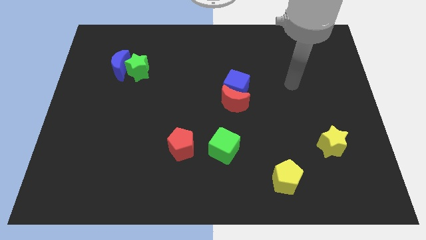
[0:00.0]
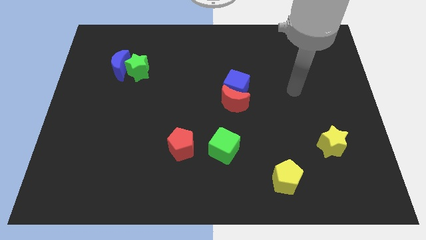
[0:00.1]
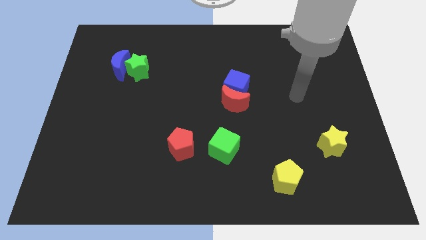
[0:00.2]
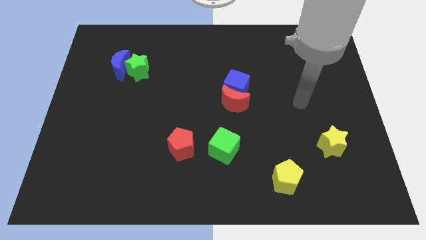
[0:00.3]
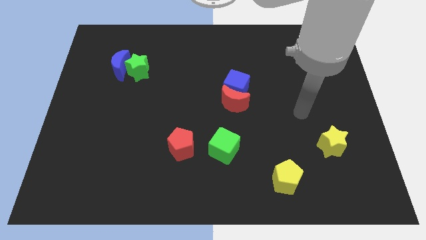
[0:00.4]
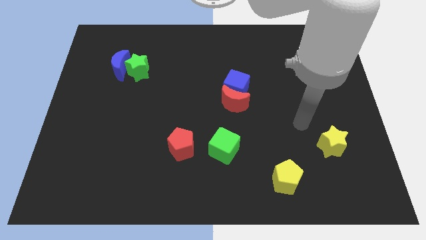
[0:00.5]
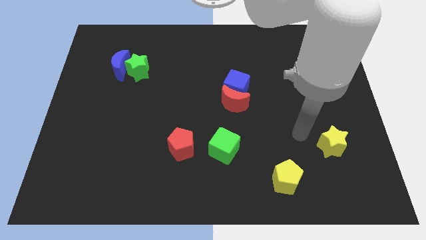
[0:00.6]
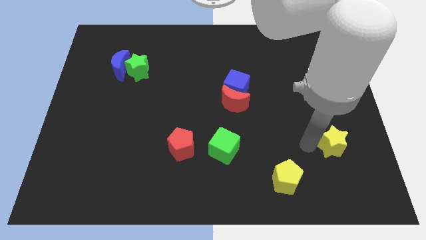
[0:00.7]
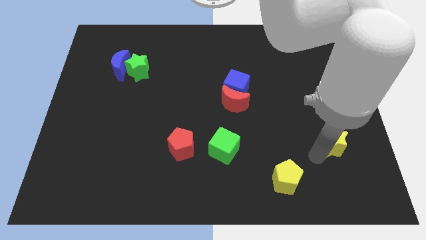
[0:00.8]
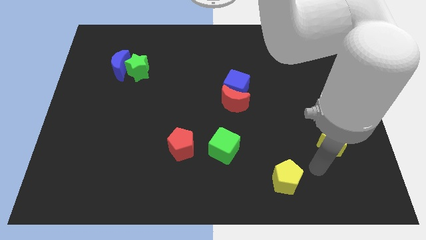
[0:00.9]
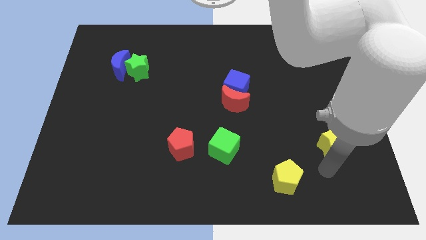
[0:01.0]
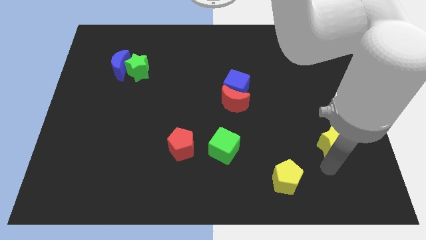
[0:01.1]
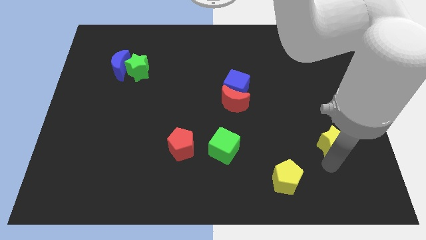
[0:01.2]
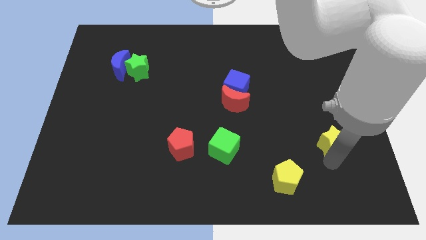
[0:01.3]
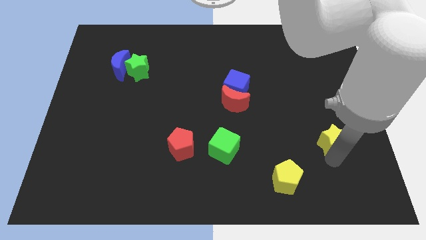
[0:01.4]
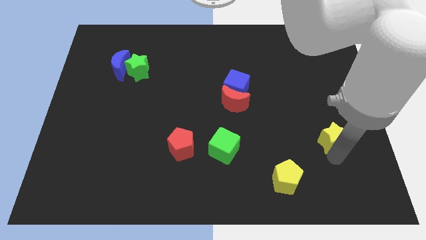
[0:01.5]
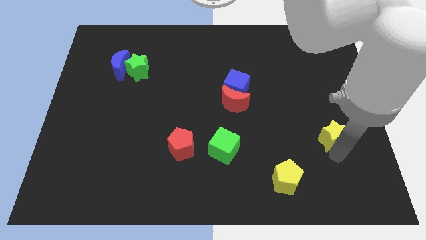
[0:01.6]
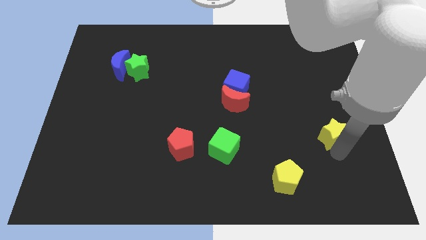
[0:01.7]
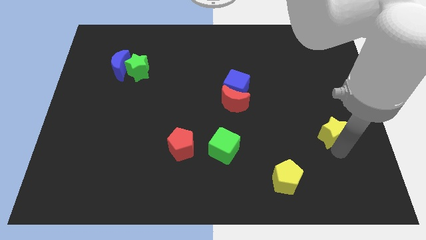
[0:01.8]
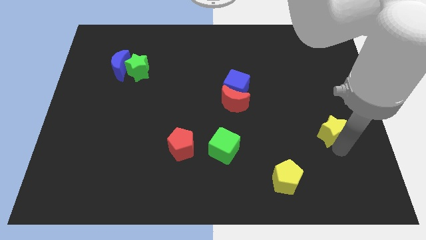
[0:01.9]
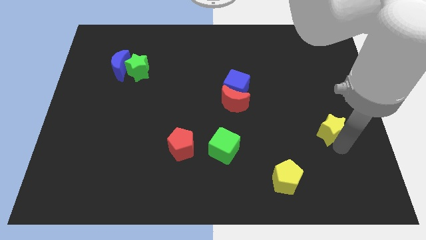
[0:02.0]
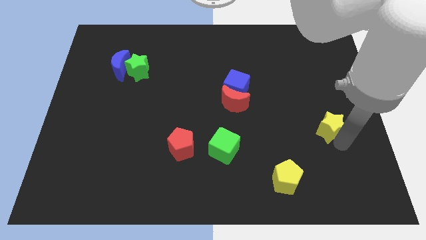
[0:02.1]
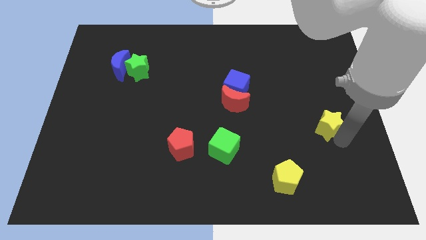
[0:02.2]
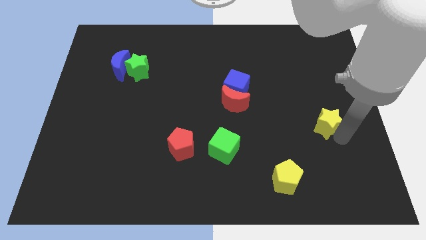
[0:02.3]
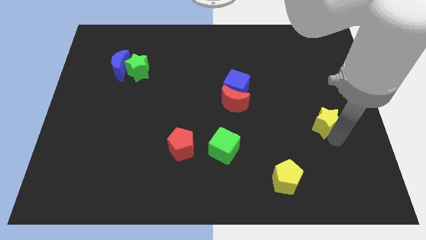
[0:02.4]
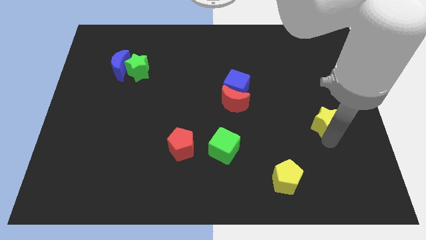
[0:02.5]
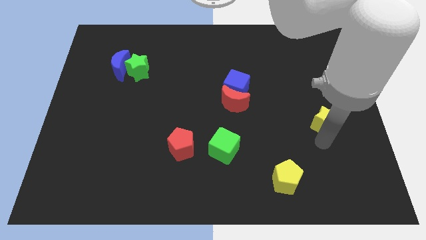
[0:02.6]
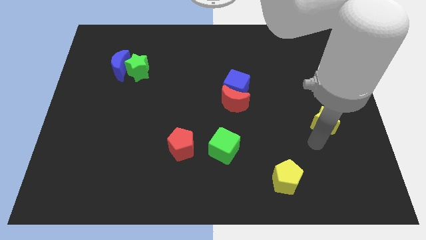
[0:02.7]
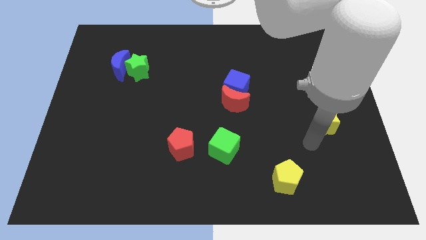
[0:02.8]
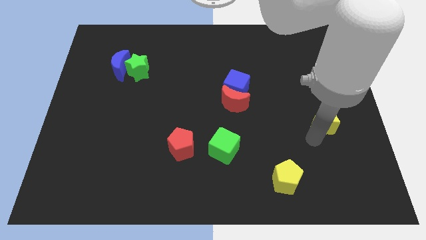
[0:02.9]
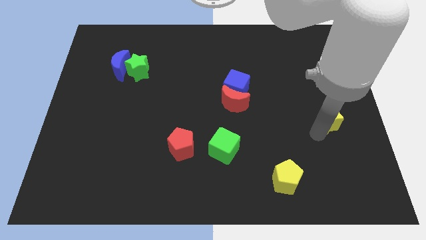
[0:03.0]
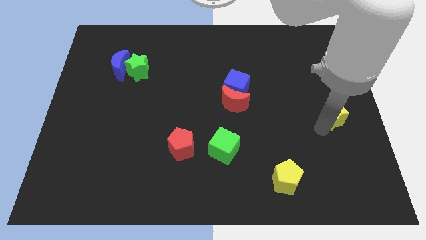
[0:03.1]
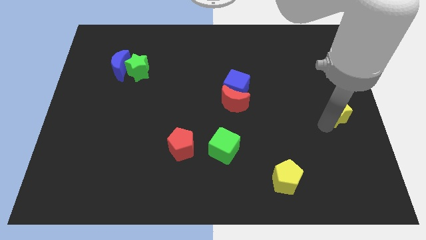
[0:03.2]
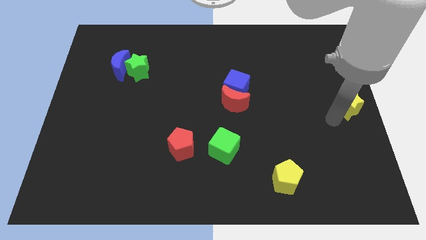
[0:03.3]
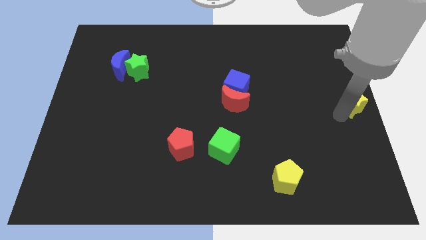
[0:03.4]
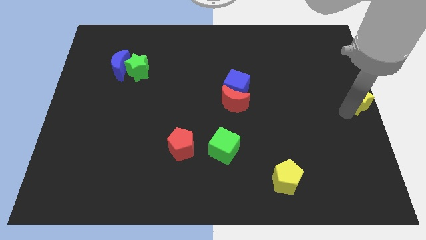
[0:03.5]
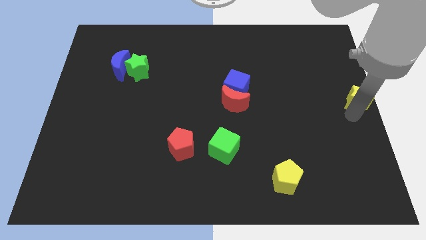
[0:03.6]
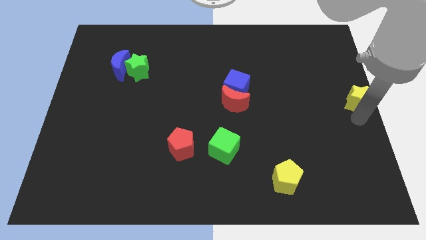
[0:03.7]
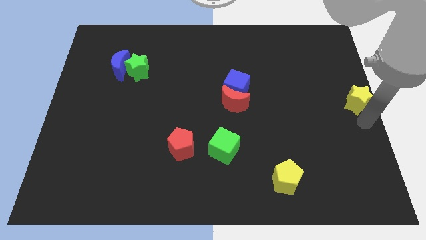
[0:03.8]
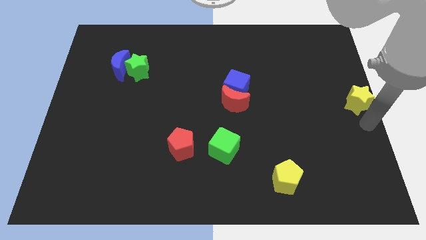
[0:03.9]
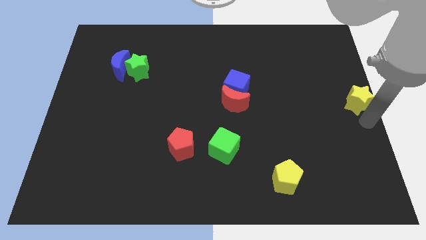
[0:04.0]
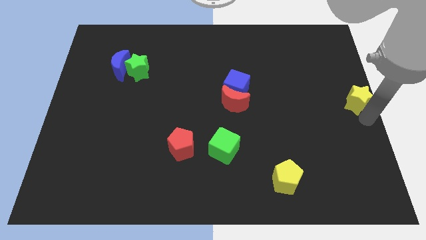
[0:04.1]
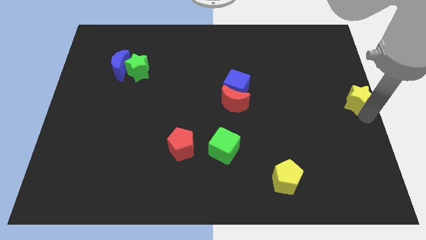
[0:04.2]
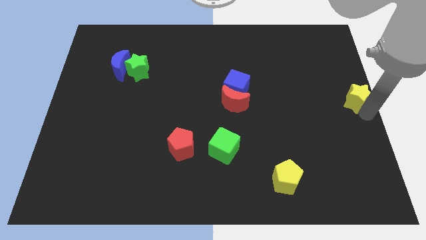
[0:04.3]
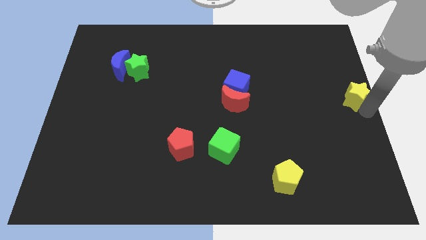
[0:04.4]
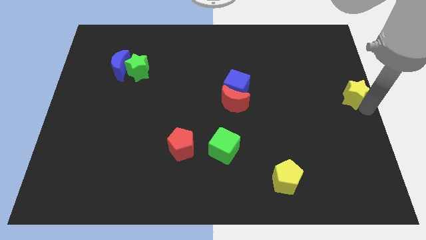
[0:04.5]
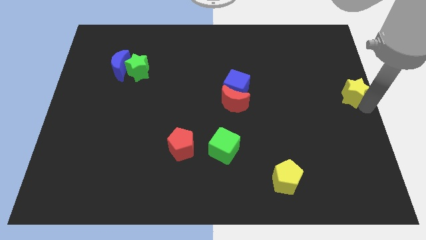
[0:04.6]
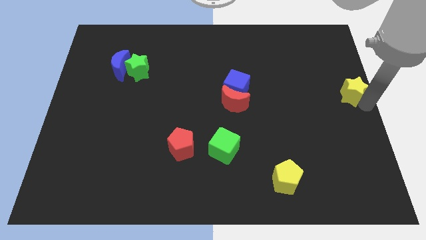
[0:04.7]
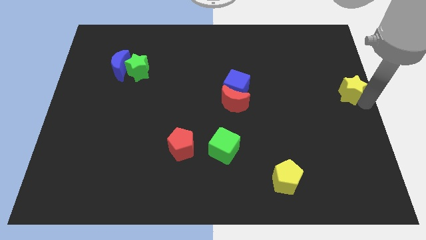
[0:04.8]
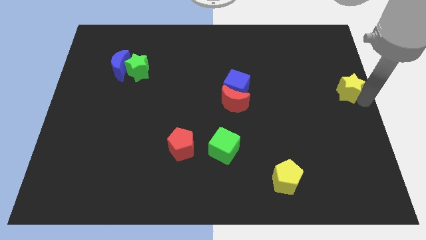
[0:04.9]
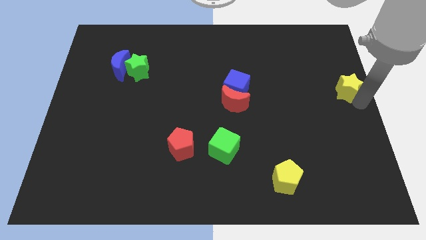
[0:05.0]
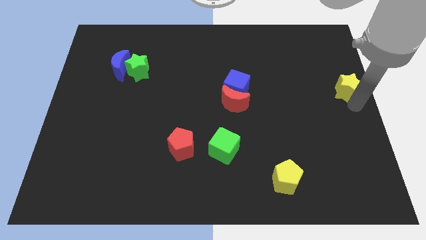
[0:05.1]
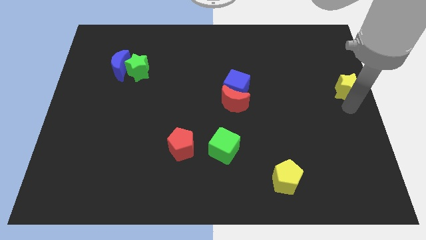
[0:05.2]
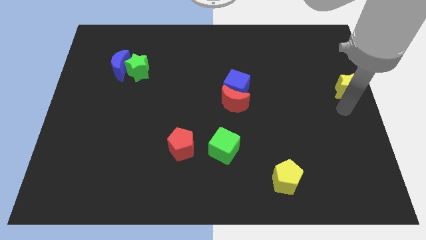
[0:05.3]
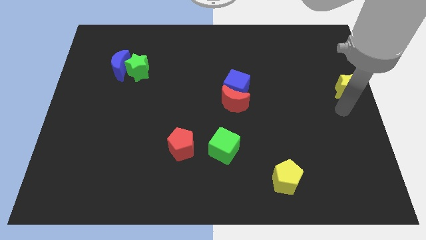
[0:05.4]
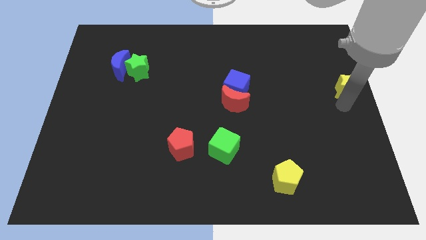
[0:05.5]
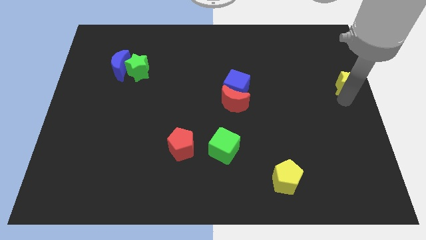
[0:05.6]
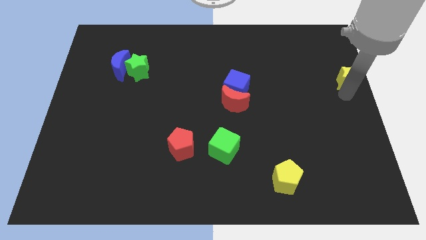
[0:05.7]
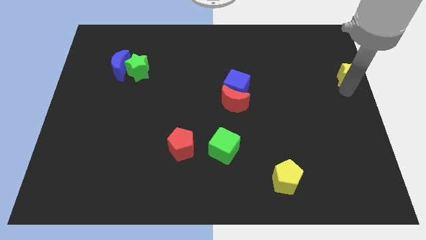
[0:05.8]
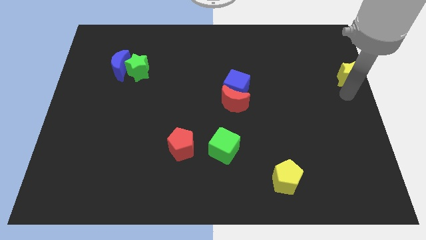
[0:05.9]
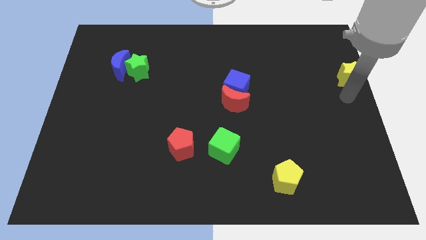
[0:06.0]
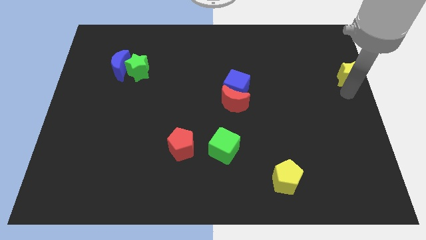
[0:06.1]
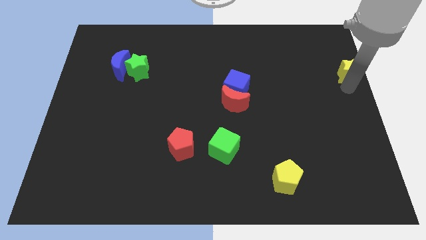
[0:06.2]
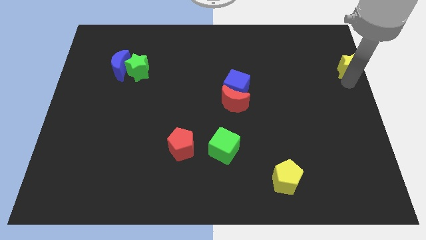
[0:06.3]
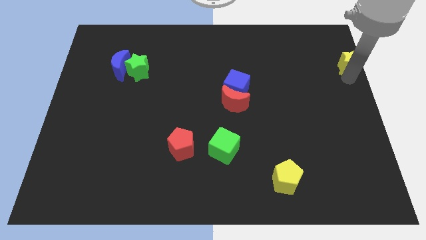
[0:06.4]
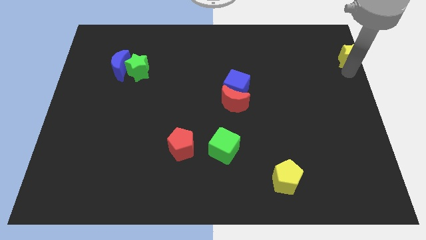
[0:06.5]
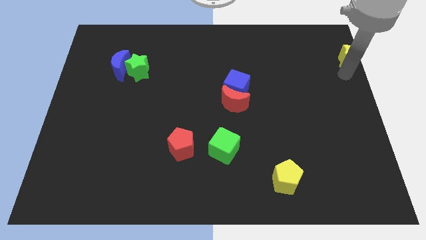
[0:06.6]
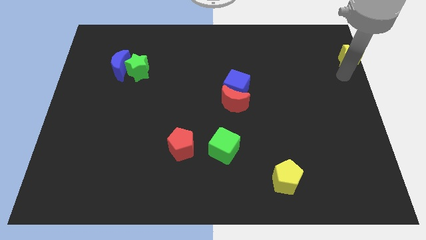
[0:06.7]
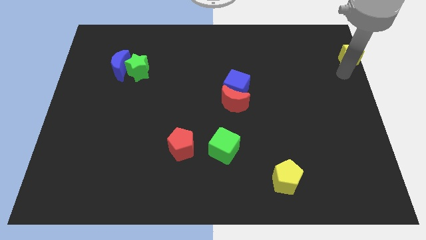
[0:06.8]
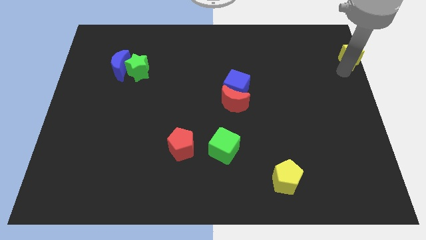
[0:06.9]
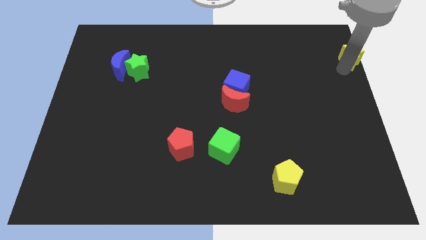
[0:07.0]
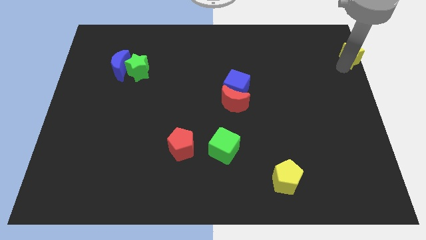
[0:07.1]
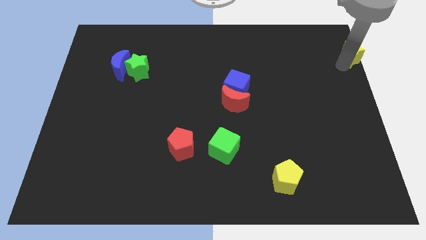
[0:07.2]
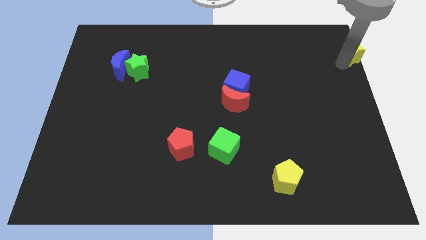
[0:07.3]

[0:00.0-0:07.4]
push the yellow star to the upper right corner
